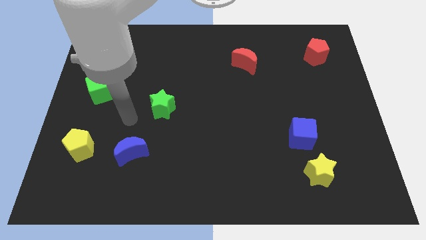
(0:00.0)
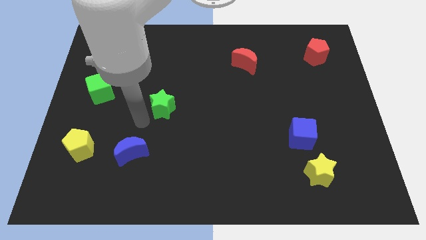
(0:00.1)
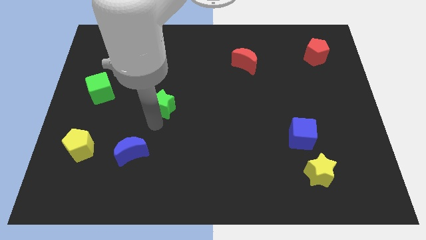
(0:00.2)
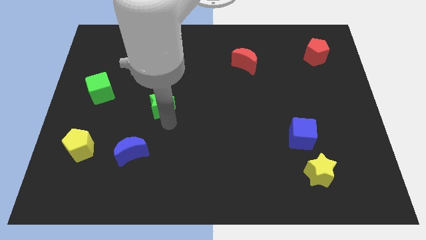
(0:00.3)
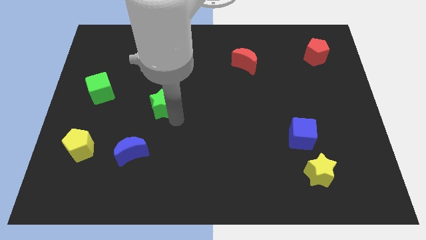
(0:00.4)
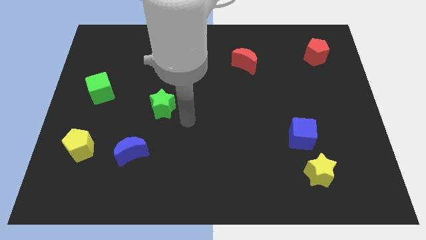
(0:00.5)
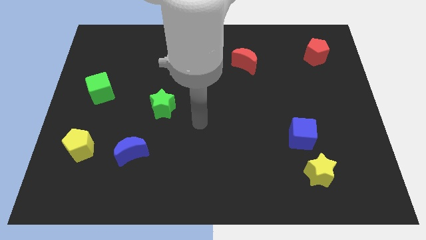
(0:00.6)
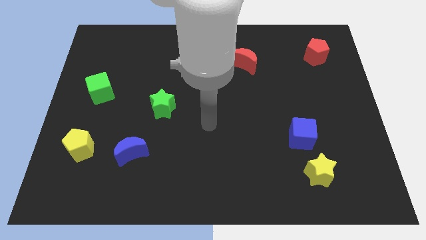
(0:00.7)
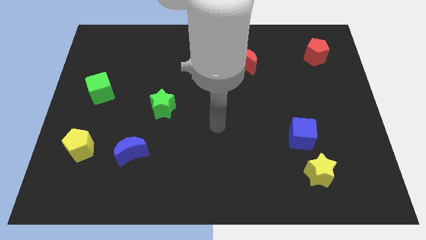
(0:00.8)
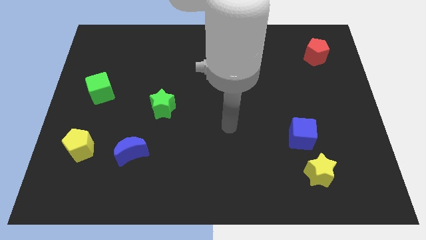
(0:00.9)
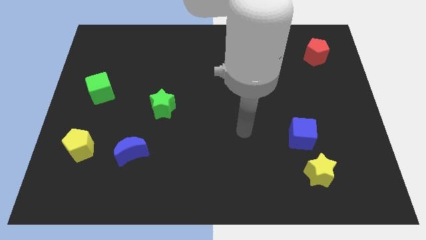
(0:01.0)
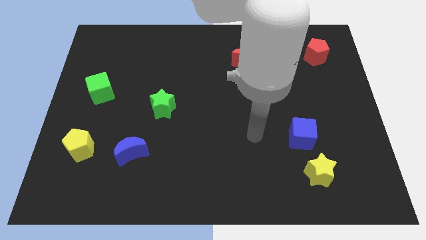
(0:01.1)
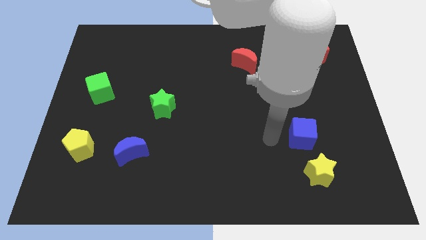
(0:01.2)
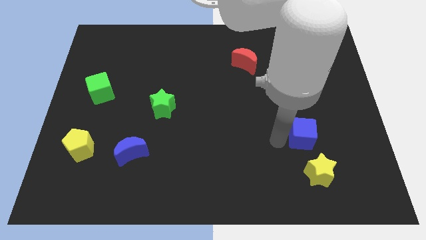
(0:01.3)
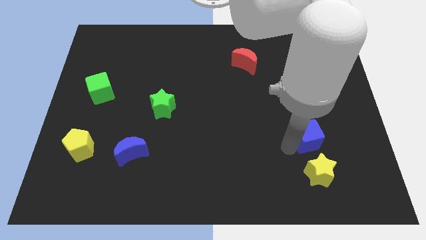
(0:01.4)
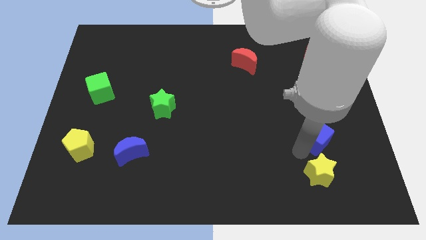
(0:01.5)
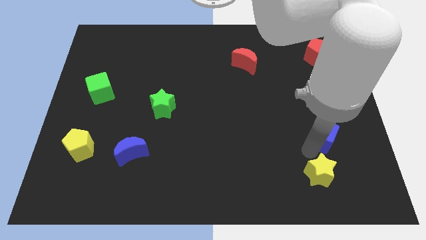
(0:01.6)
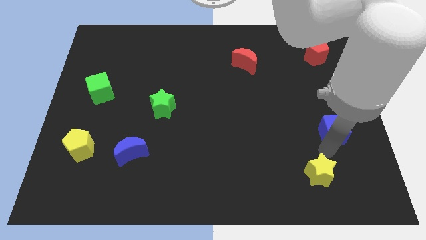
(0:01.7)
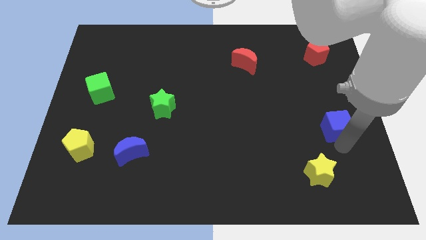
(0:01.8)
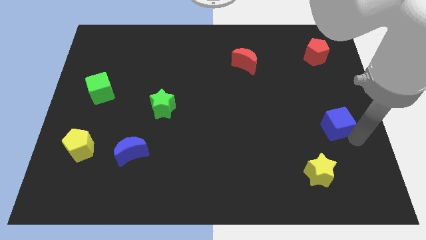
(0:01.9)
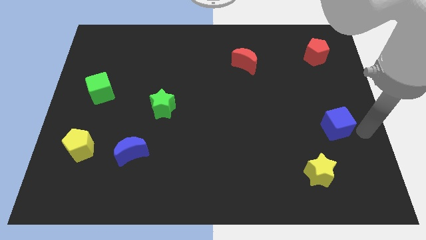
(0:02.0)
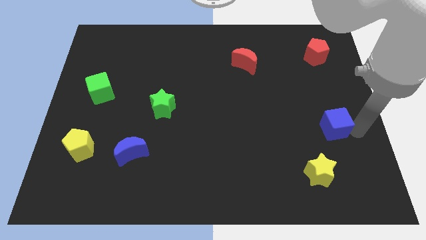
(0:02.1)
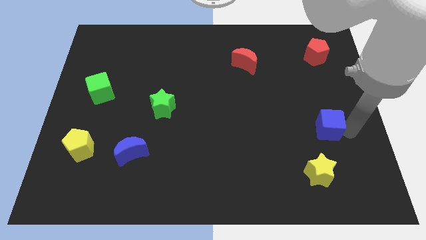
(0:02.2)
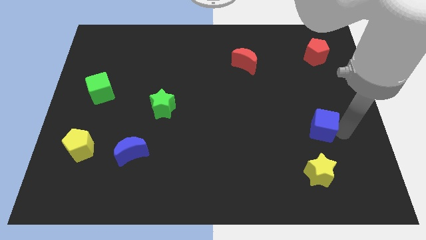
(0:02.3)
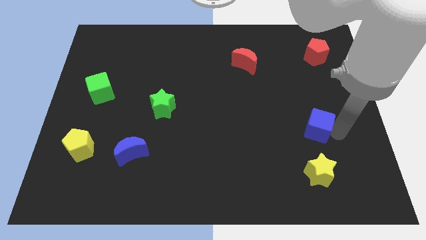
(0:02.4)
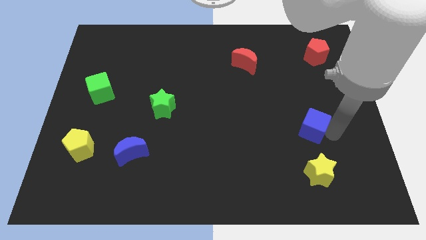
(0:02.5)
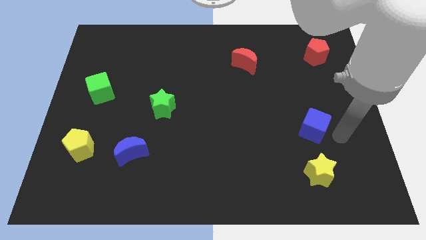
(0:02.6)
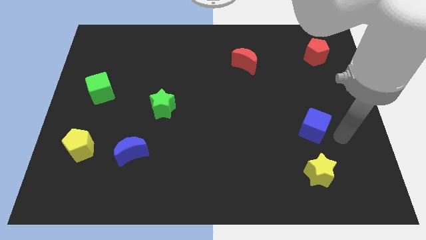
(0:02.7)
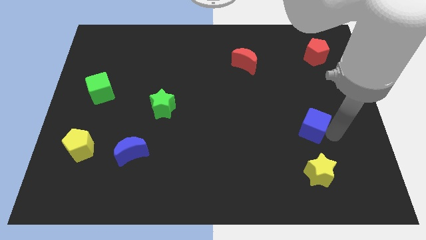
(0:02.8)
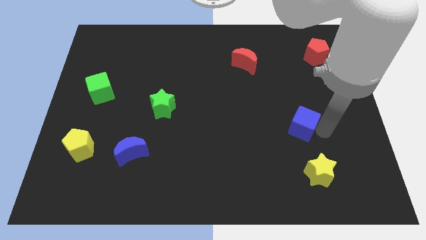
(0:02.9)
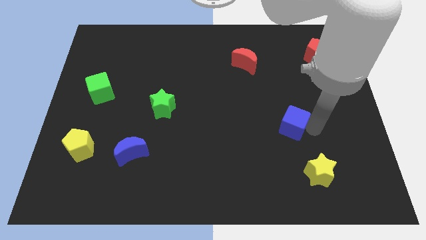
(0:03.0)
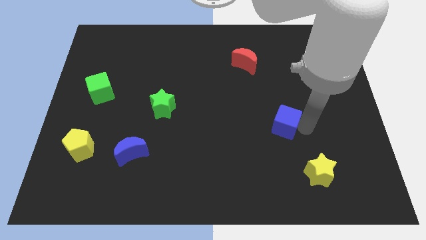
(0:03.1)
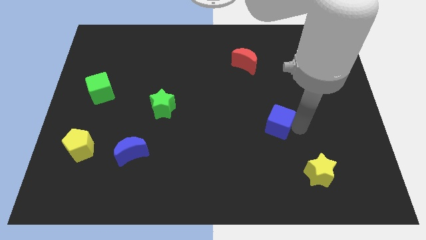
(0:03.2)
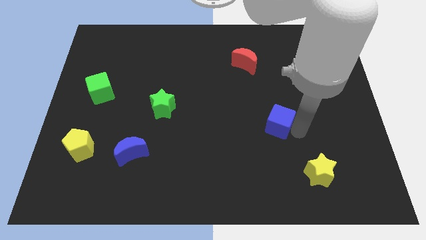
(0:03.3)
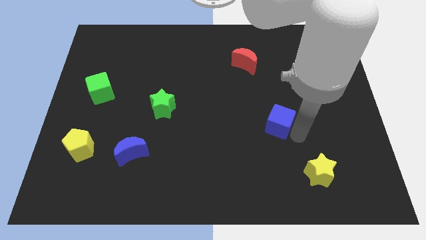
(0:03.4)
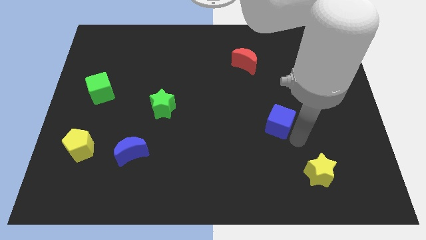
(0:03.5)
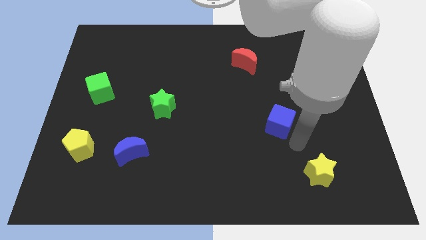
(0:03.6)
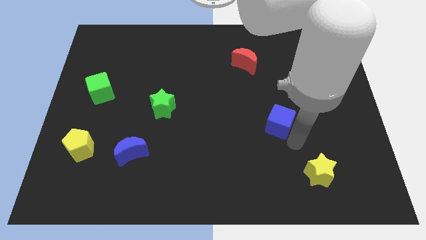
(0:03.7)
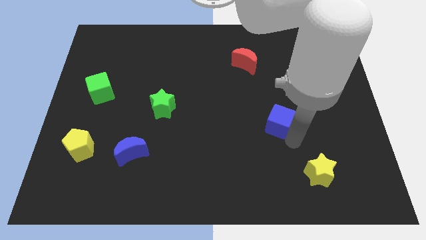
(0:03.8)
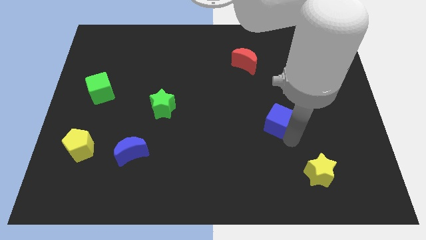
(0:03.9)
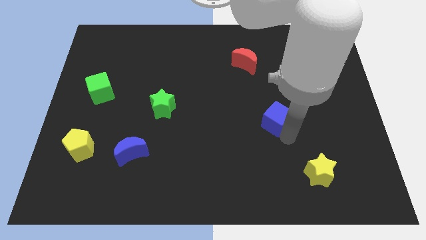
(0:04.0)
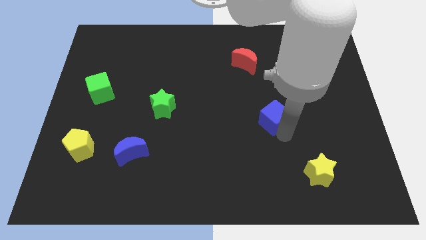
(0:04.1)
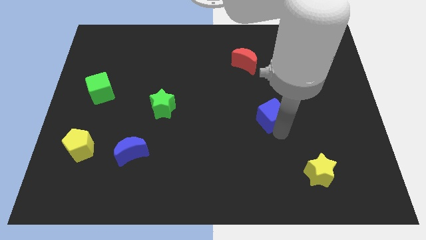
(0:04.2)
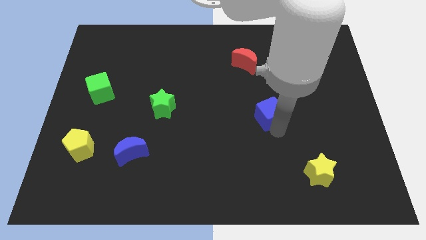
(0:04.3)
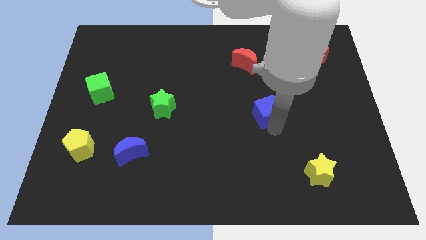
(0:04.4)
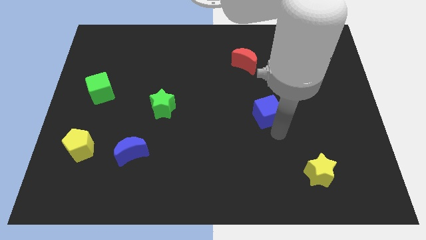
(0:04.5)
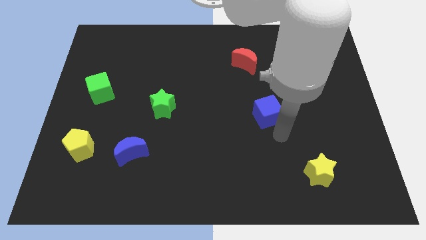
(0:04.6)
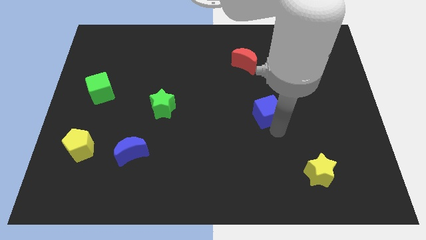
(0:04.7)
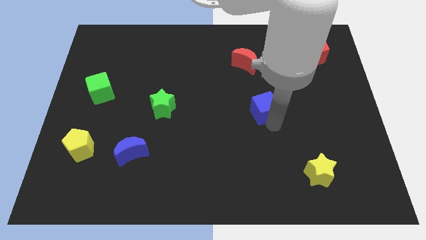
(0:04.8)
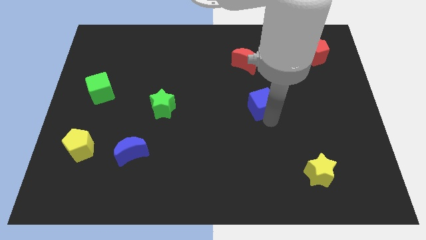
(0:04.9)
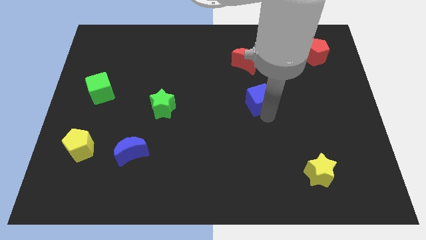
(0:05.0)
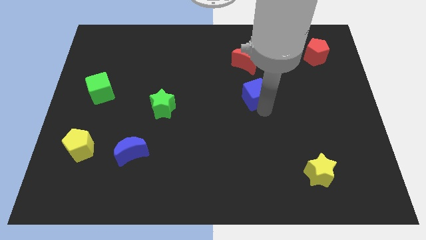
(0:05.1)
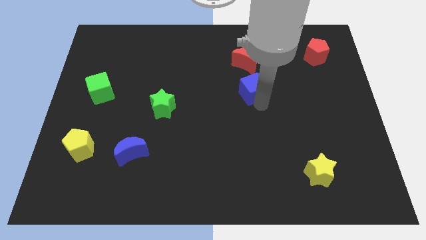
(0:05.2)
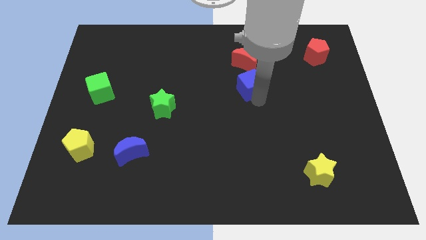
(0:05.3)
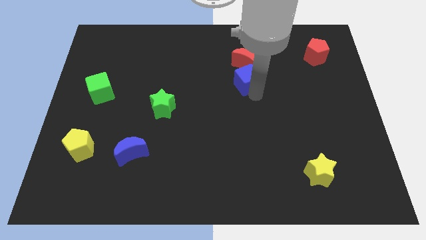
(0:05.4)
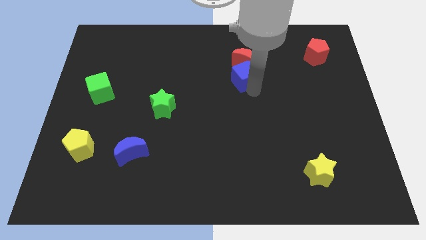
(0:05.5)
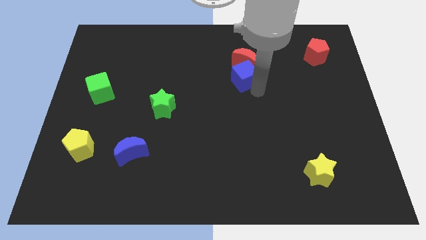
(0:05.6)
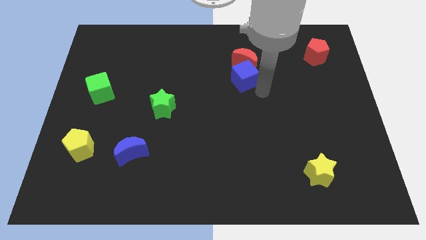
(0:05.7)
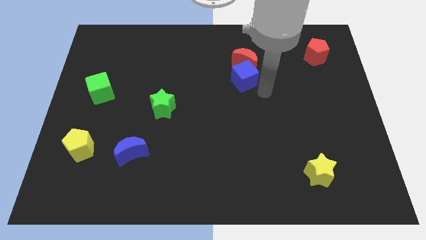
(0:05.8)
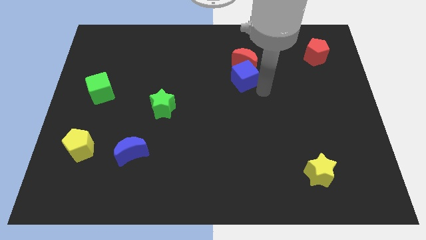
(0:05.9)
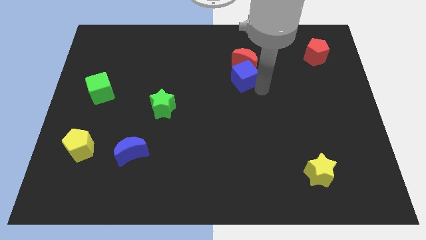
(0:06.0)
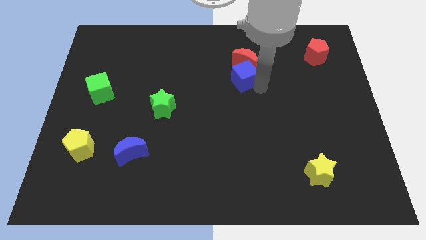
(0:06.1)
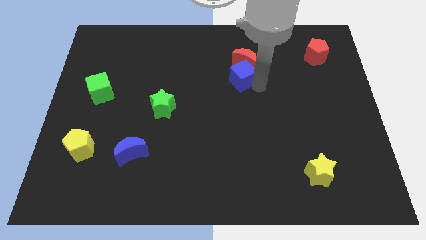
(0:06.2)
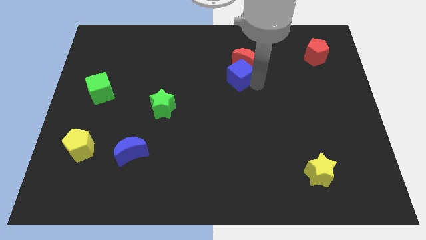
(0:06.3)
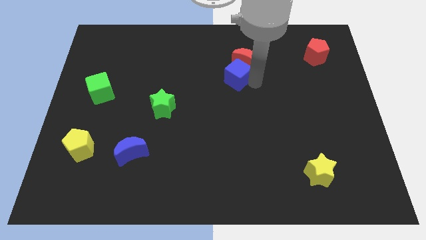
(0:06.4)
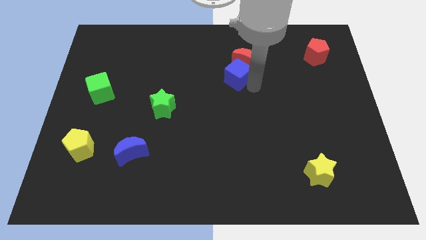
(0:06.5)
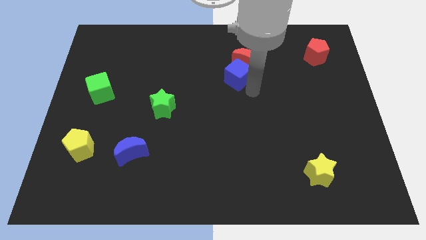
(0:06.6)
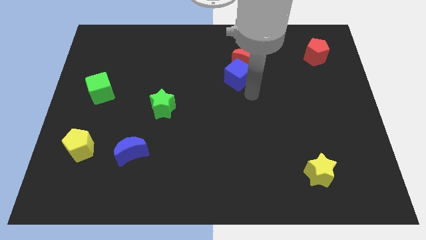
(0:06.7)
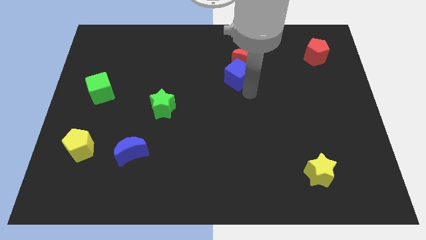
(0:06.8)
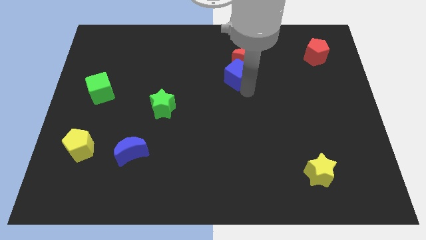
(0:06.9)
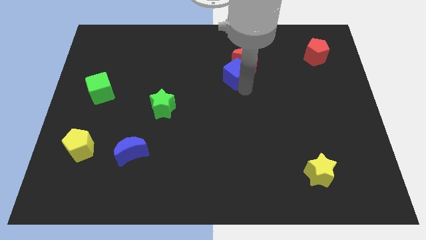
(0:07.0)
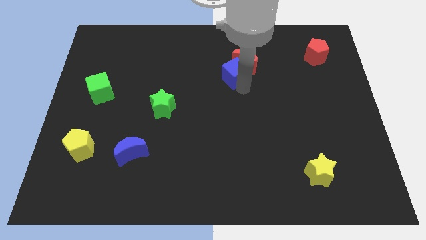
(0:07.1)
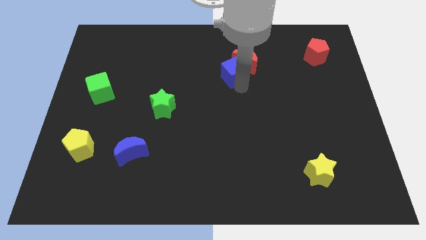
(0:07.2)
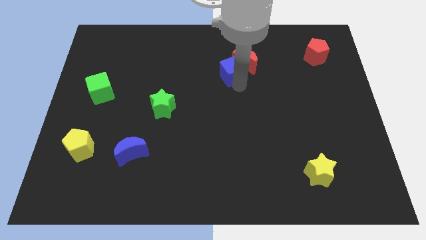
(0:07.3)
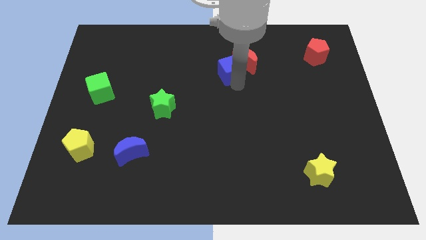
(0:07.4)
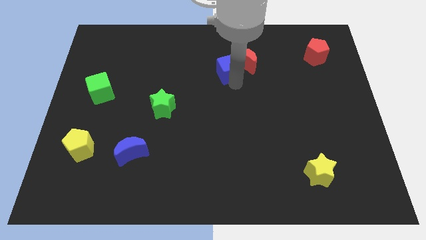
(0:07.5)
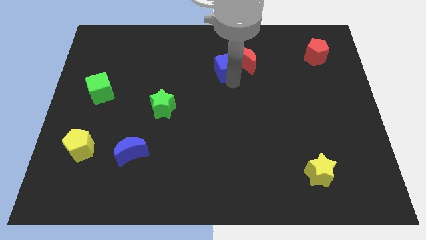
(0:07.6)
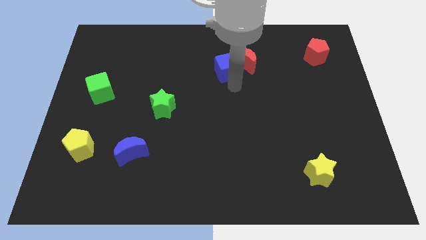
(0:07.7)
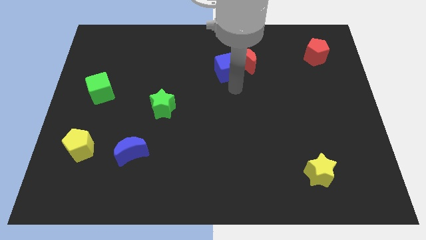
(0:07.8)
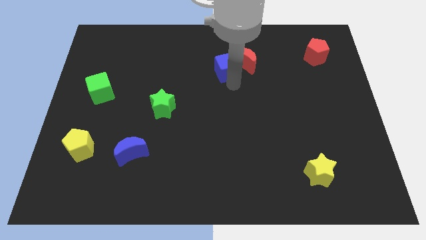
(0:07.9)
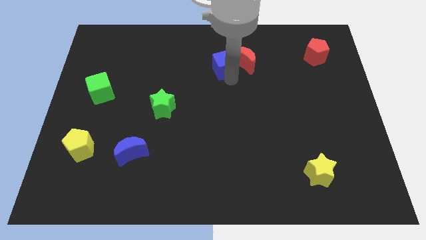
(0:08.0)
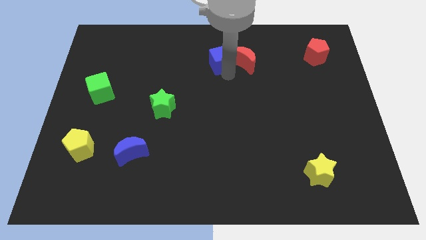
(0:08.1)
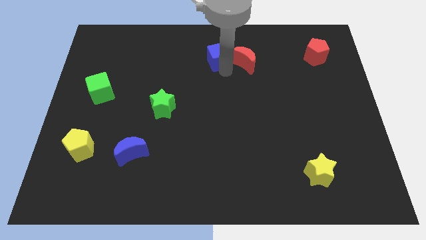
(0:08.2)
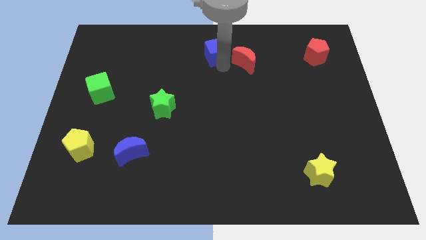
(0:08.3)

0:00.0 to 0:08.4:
move the blue cube to the towards your base
